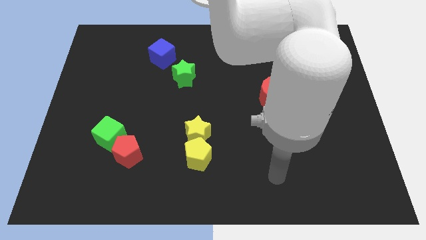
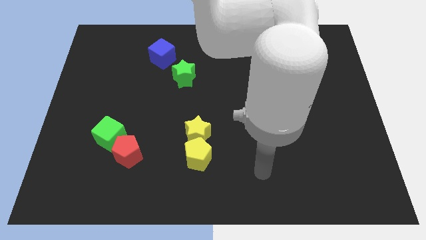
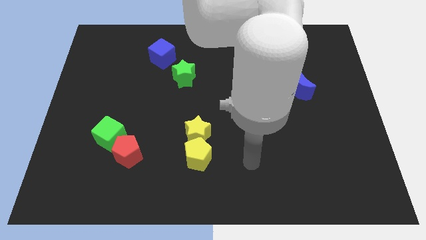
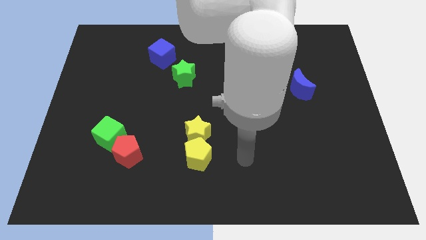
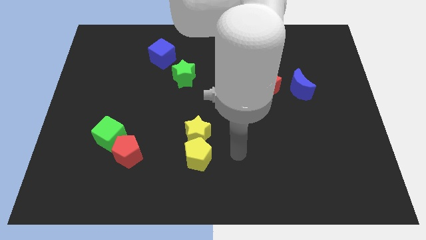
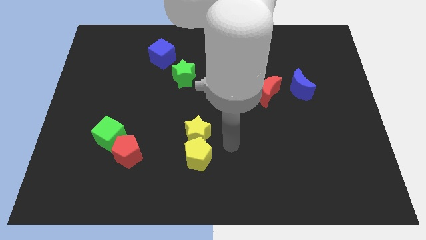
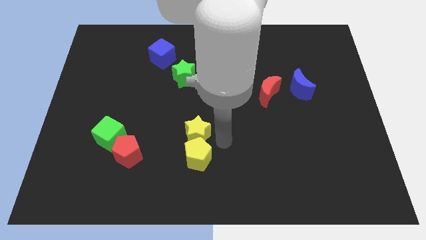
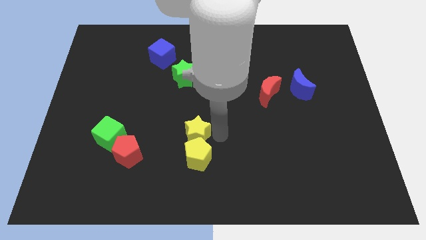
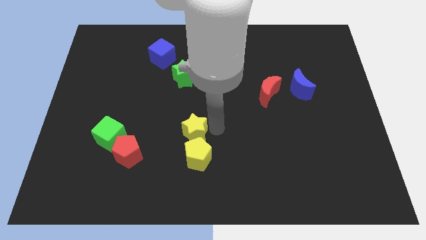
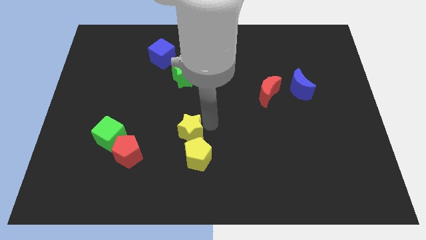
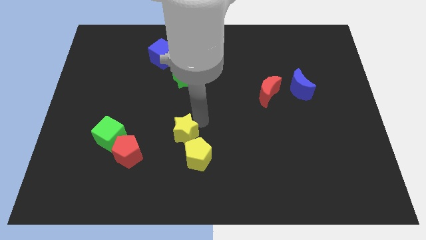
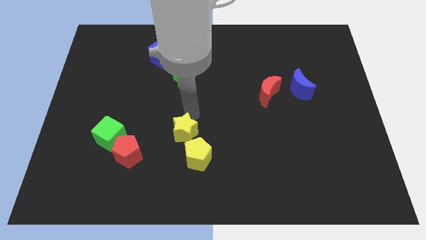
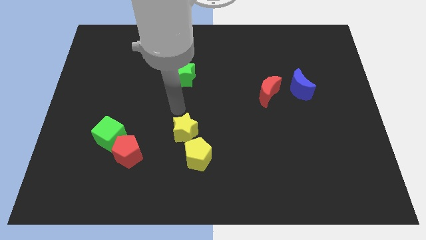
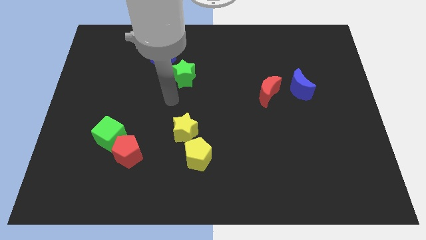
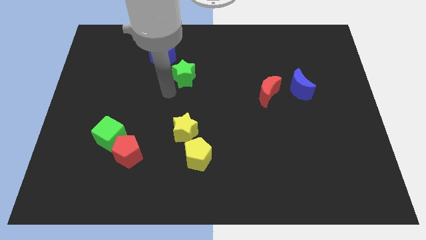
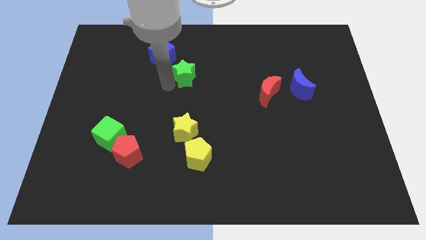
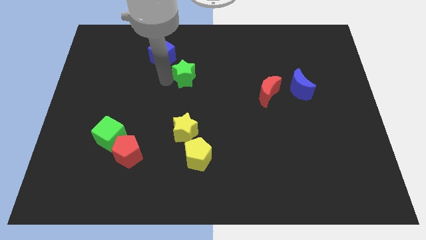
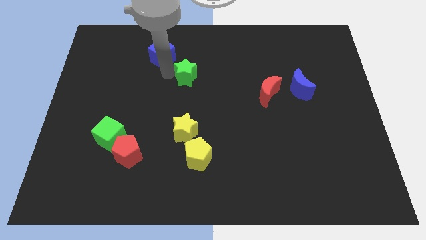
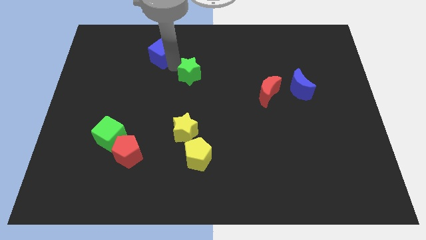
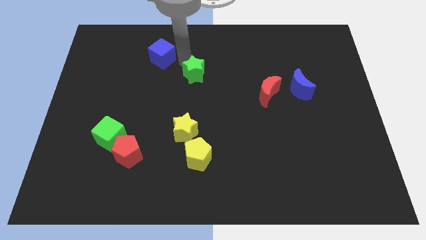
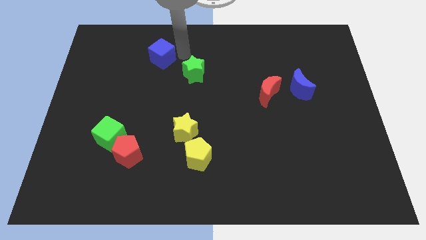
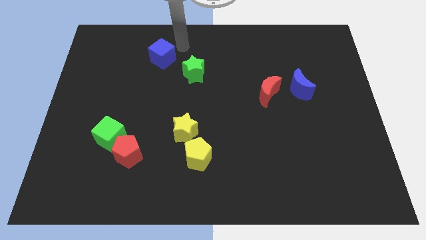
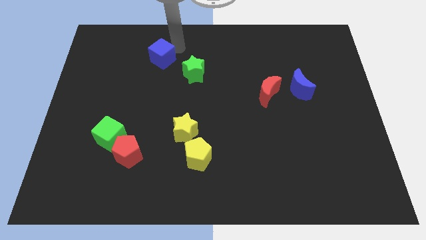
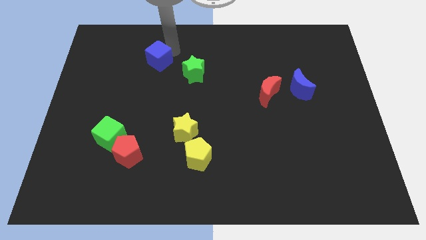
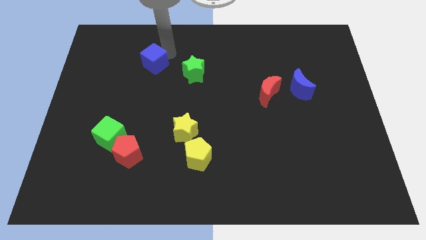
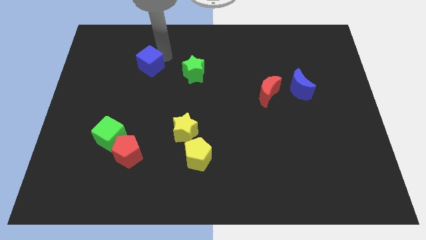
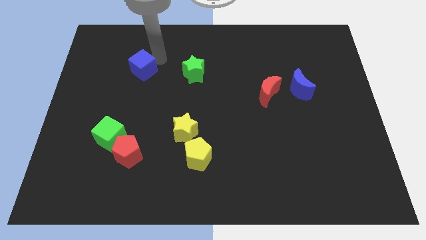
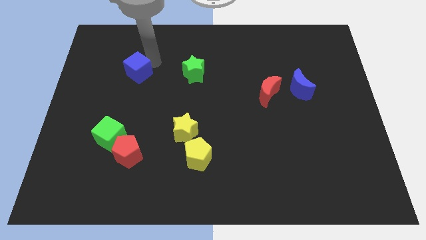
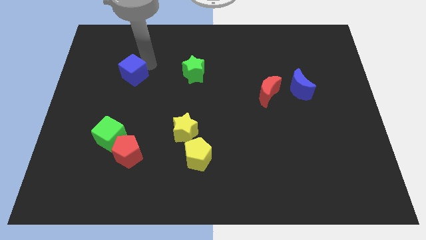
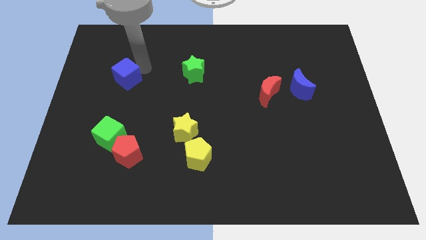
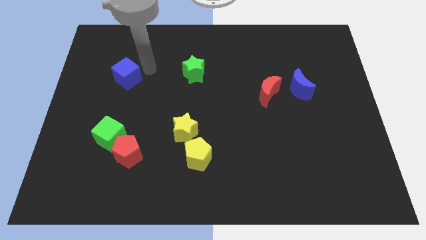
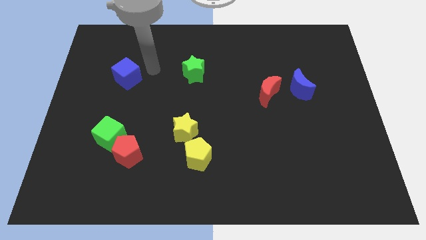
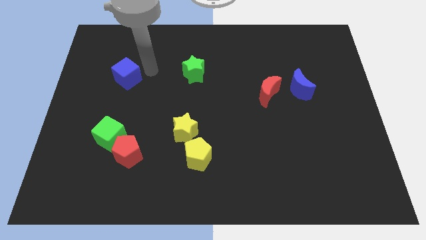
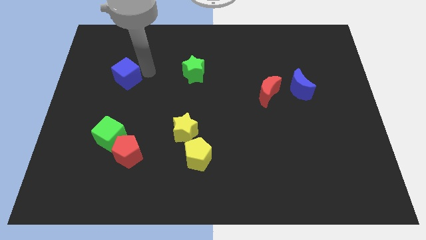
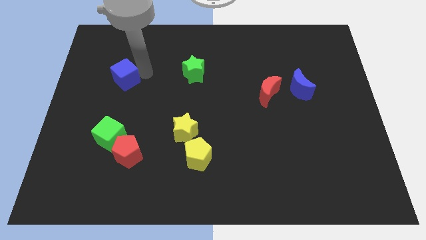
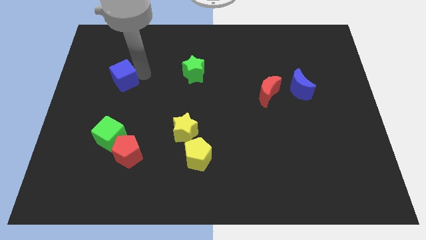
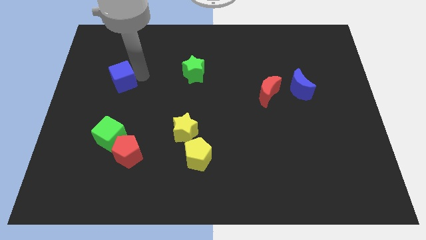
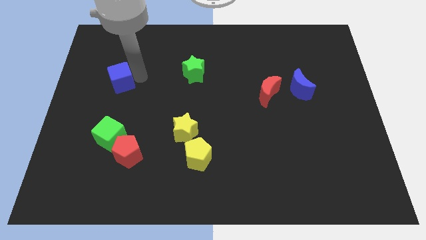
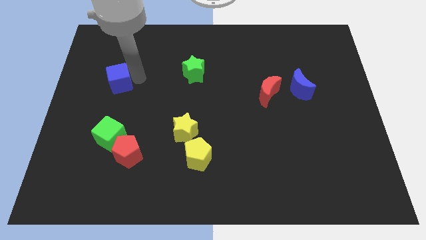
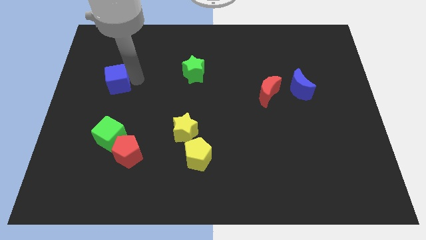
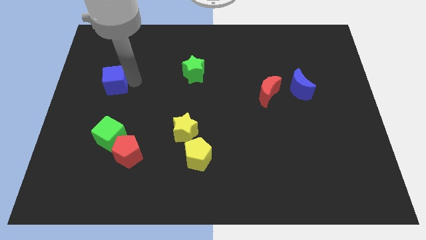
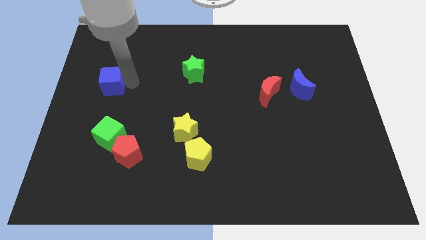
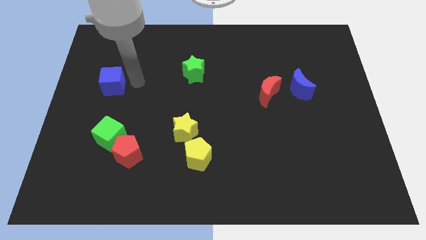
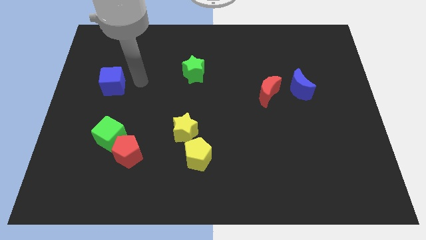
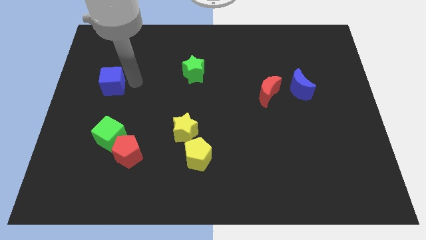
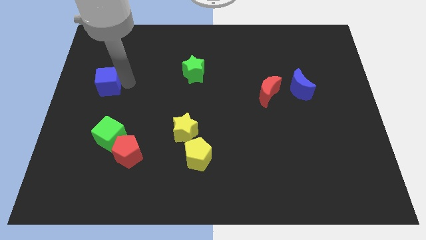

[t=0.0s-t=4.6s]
move the blue cube to the left side of the board

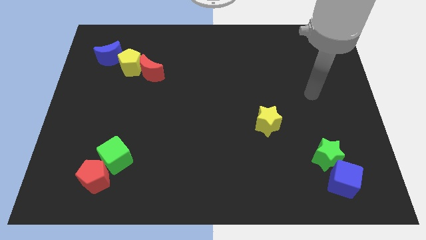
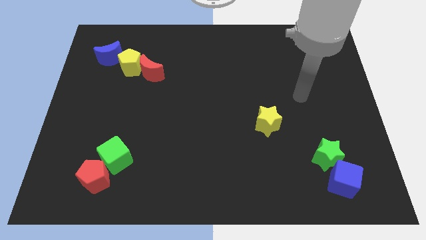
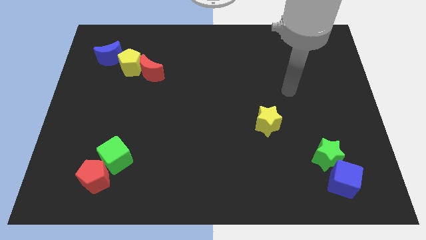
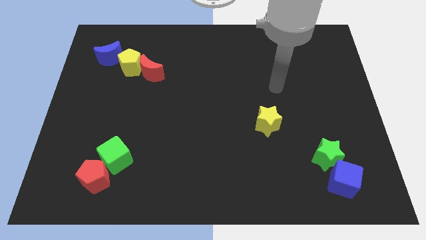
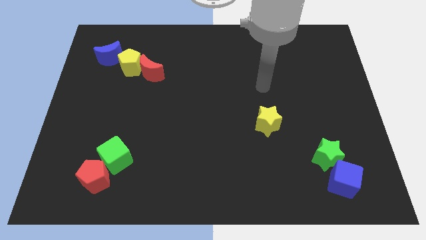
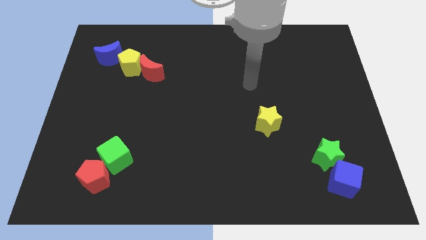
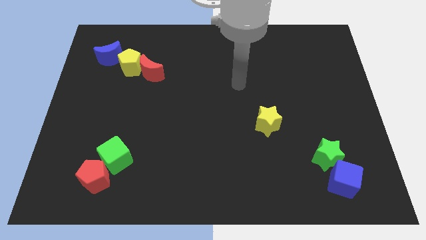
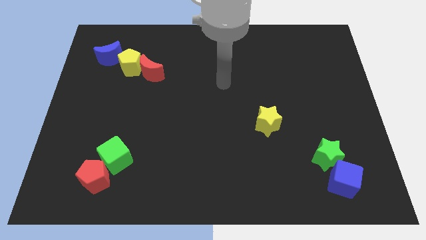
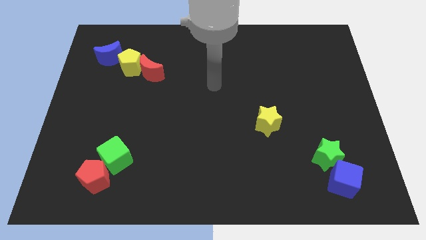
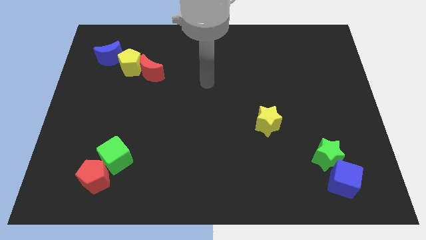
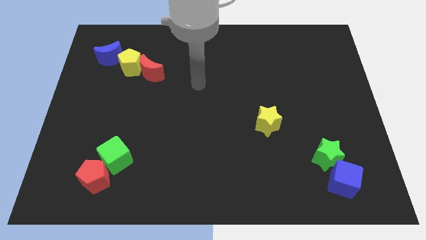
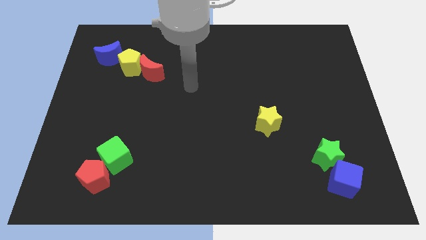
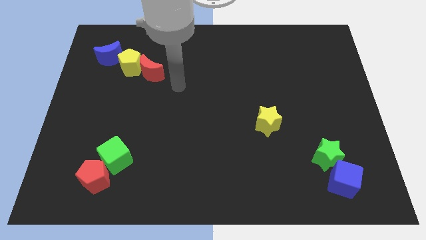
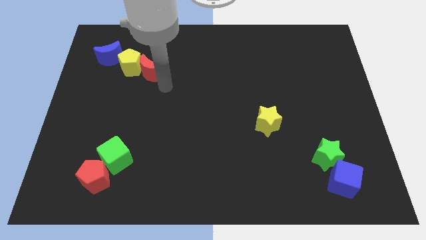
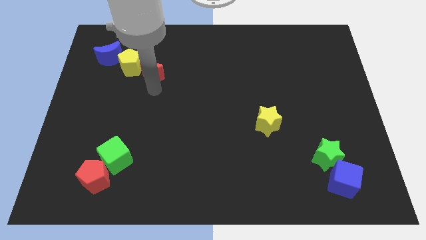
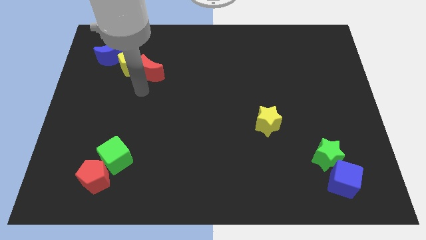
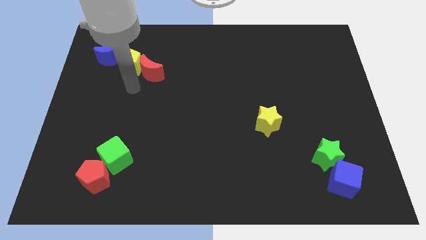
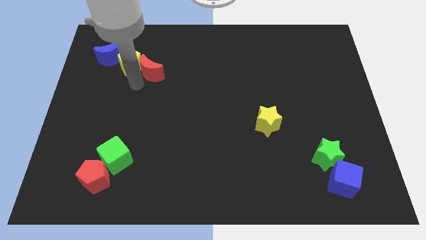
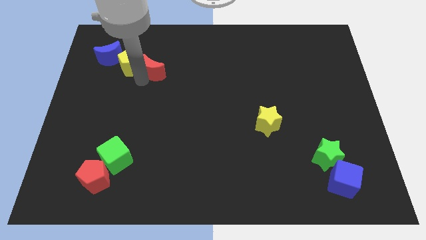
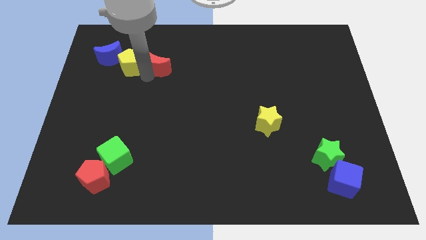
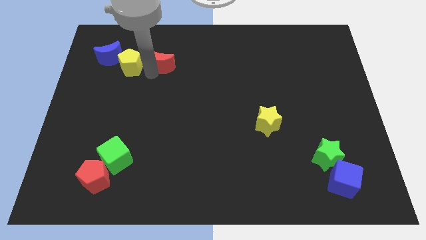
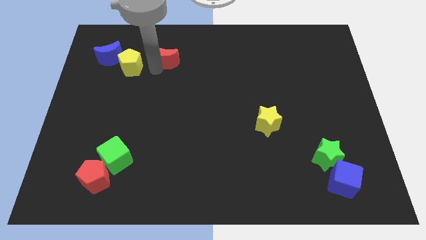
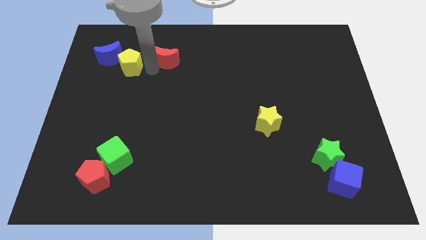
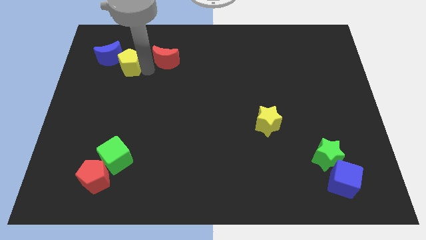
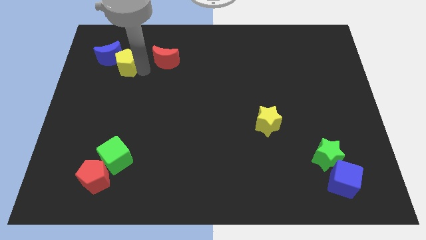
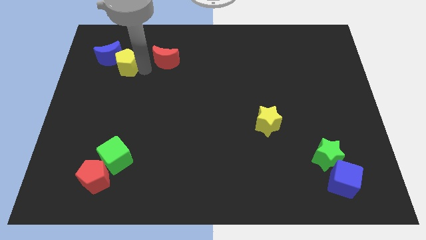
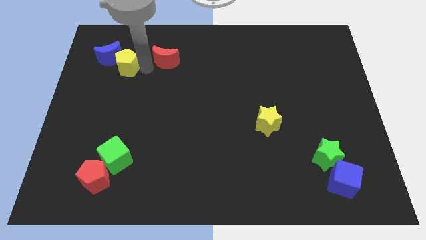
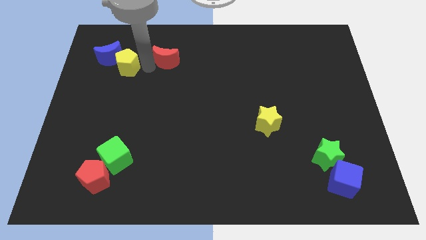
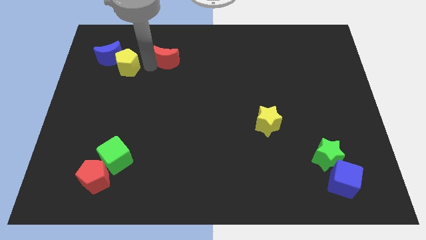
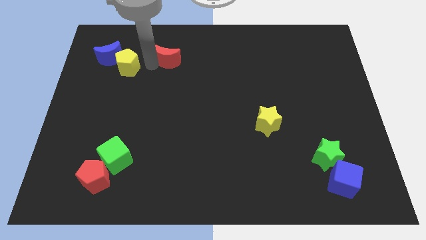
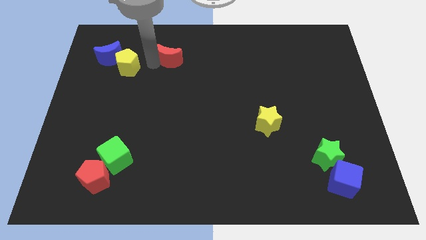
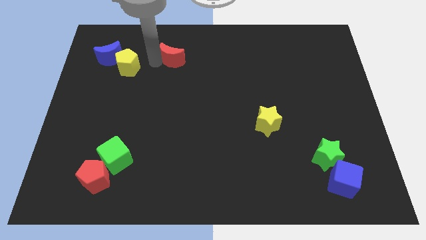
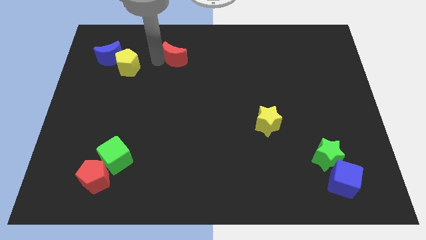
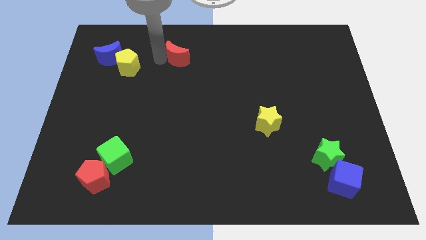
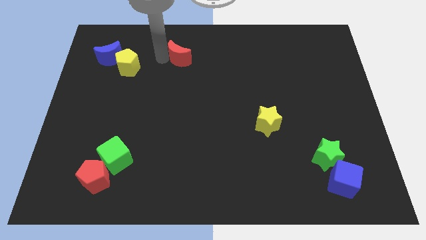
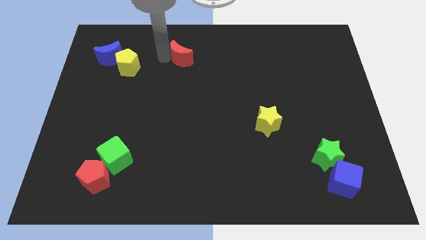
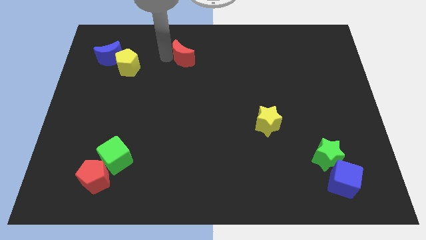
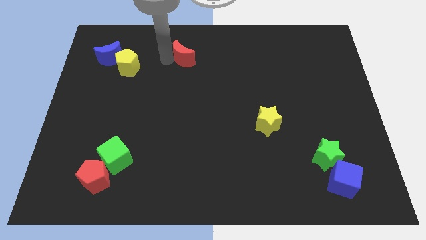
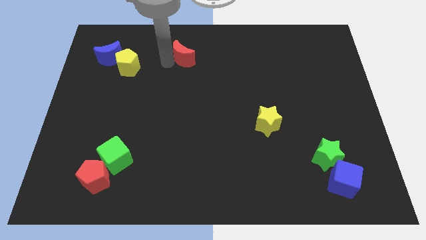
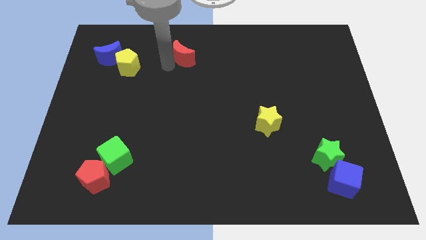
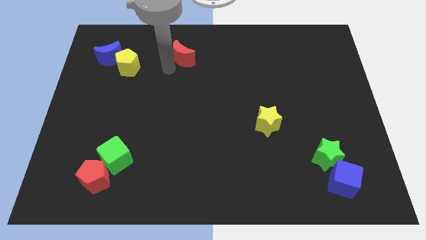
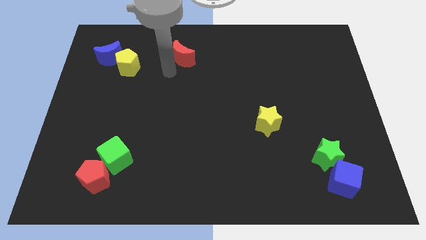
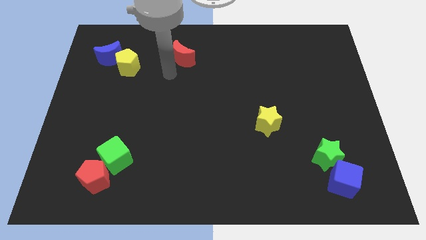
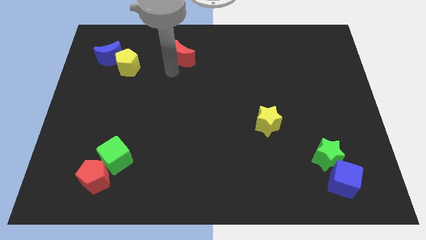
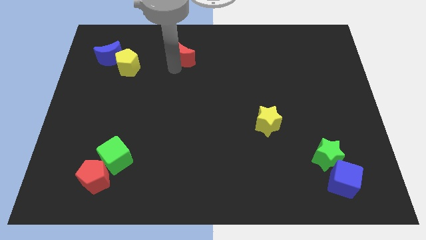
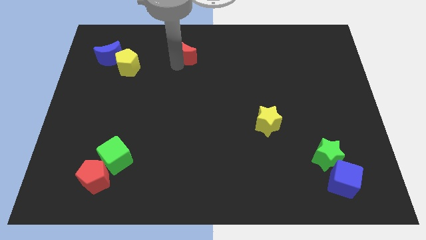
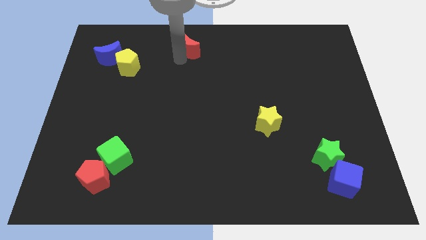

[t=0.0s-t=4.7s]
push the red moon to the towards your base
